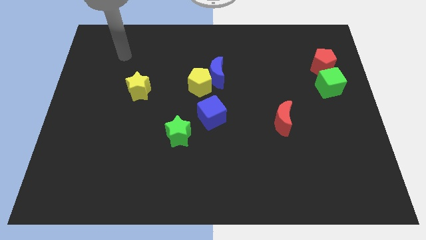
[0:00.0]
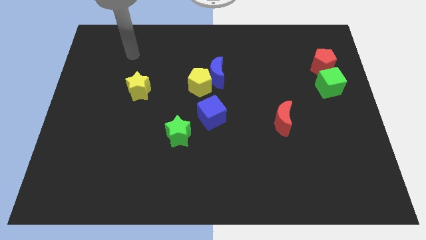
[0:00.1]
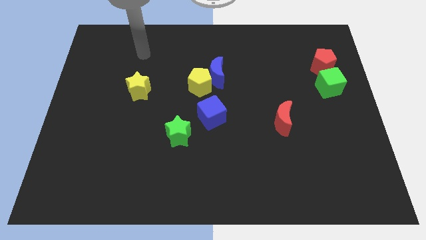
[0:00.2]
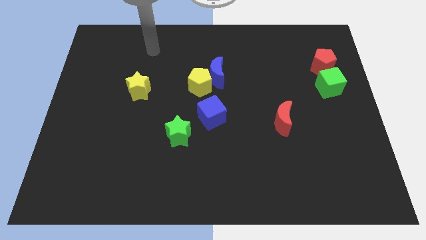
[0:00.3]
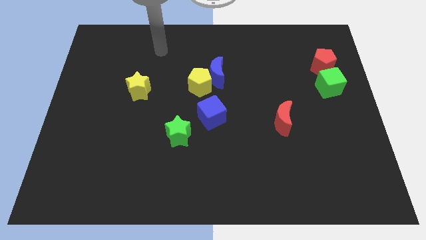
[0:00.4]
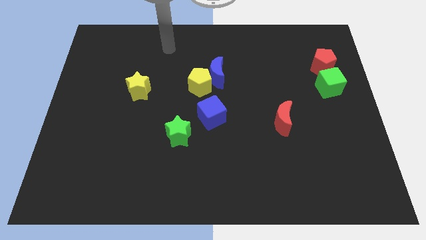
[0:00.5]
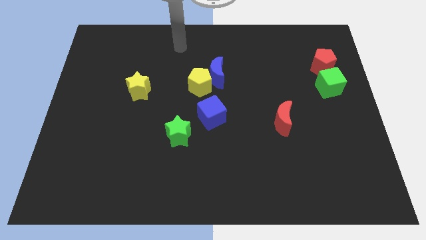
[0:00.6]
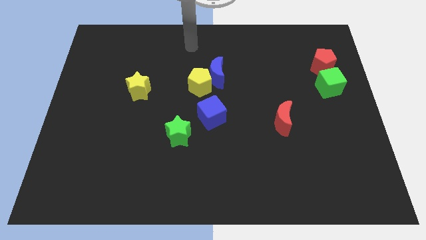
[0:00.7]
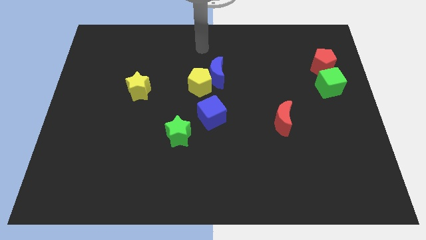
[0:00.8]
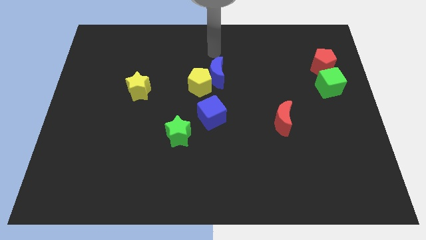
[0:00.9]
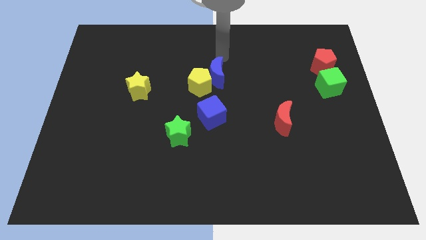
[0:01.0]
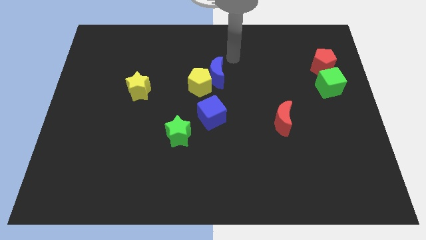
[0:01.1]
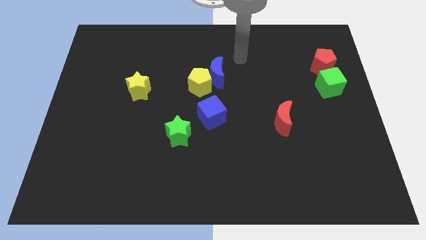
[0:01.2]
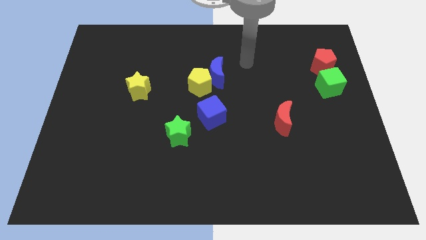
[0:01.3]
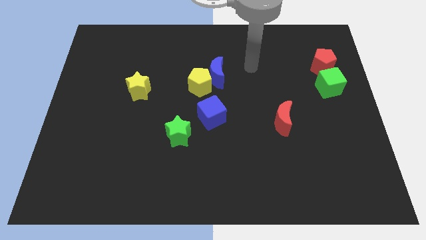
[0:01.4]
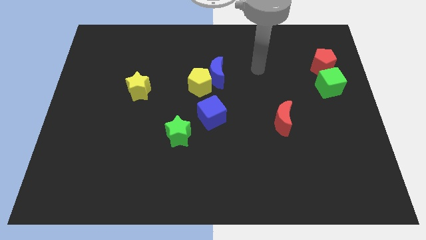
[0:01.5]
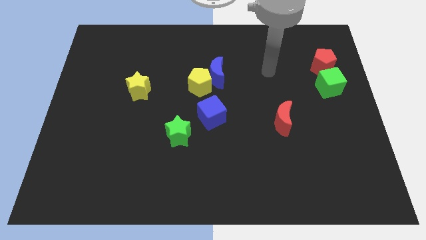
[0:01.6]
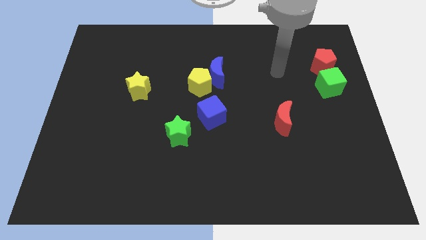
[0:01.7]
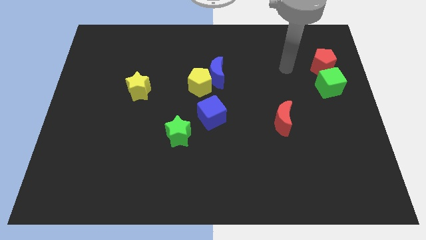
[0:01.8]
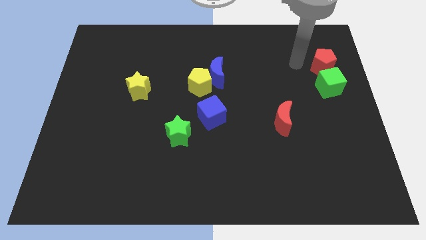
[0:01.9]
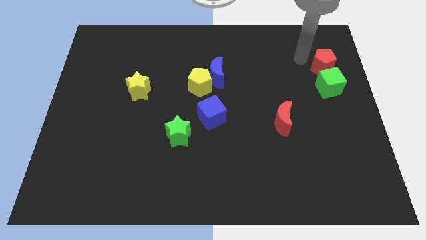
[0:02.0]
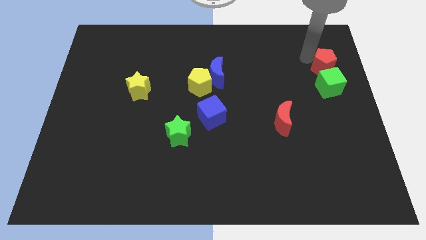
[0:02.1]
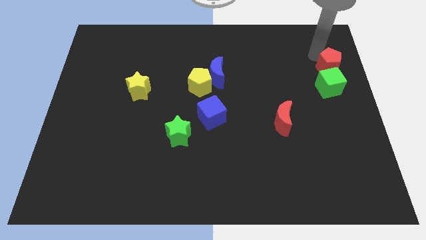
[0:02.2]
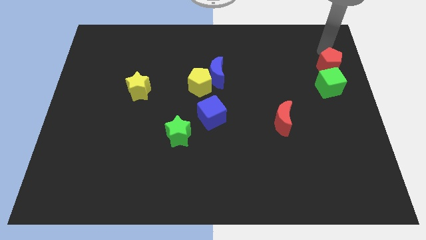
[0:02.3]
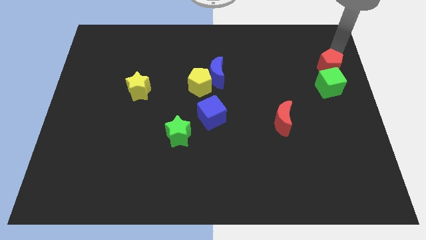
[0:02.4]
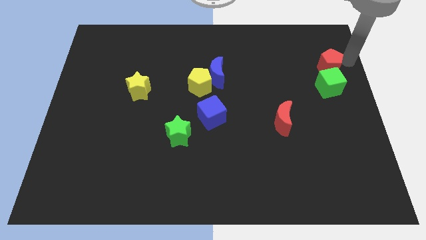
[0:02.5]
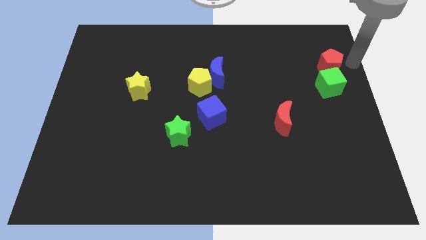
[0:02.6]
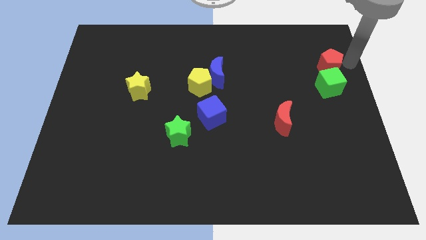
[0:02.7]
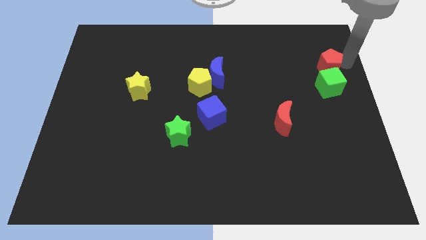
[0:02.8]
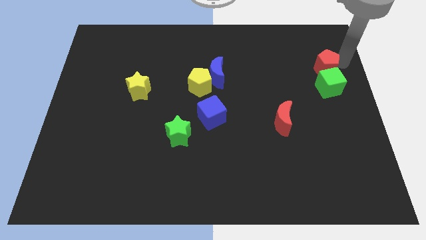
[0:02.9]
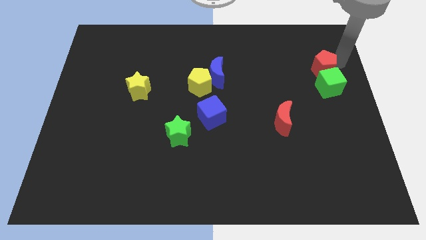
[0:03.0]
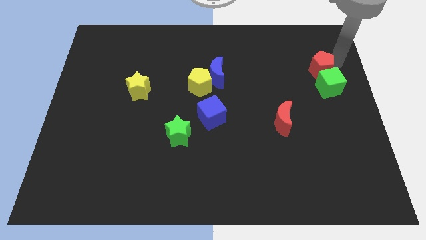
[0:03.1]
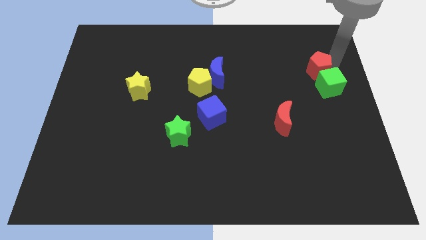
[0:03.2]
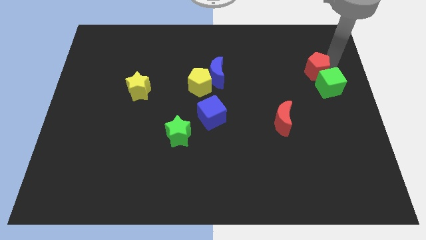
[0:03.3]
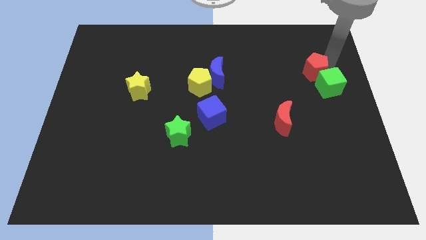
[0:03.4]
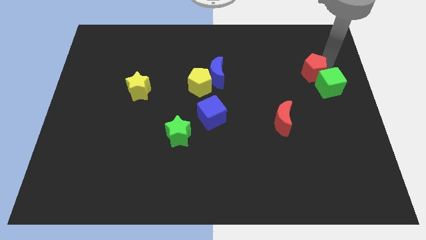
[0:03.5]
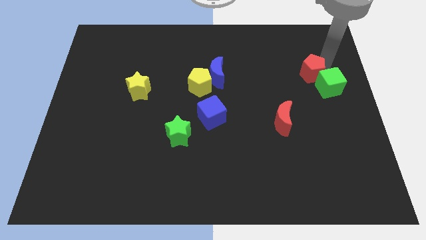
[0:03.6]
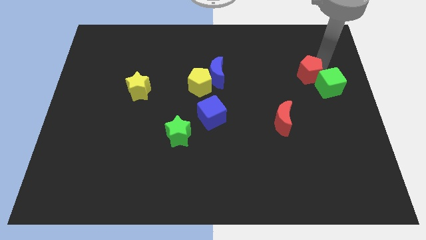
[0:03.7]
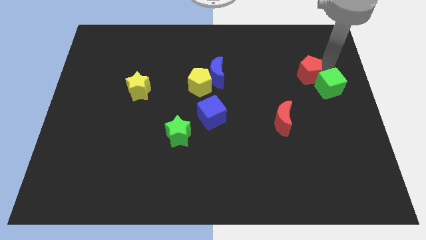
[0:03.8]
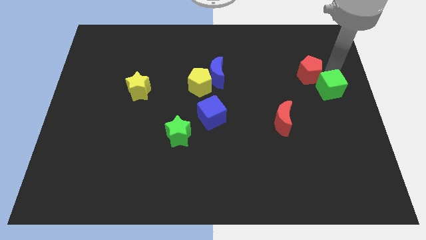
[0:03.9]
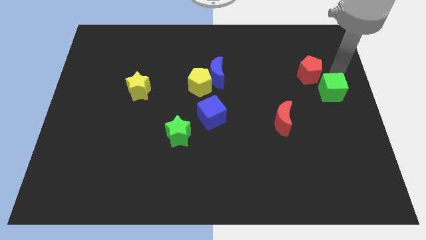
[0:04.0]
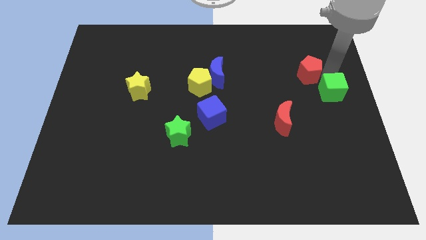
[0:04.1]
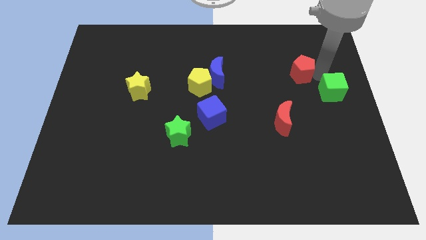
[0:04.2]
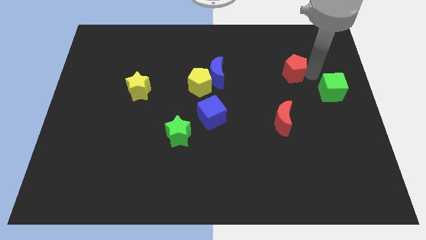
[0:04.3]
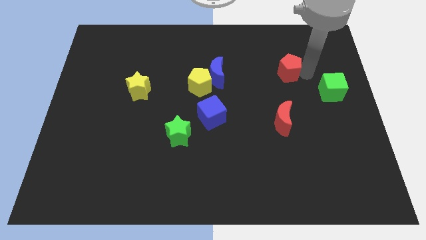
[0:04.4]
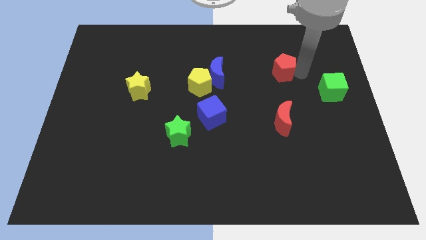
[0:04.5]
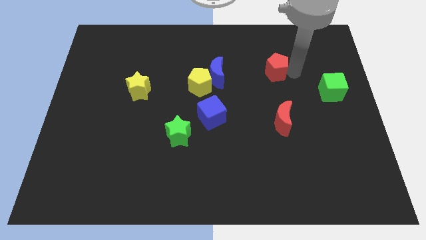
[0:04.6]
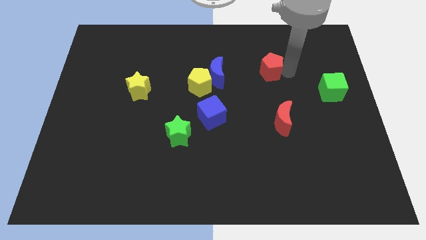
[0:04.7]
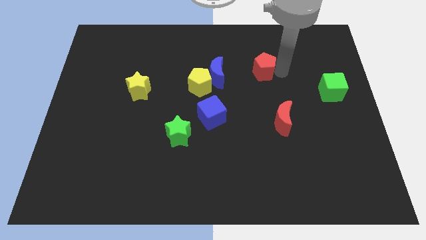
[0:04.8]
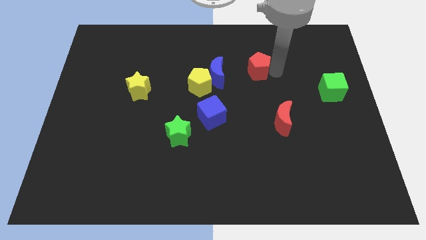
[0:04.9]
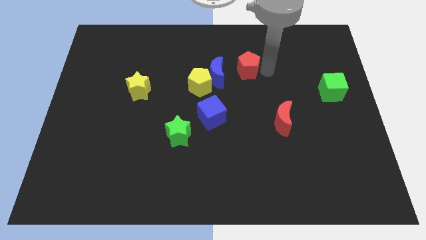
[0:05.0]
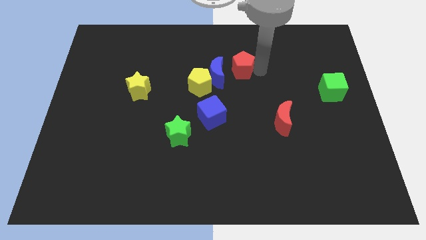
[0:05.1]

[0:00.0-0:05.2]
slide the red pentagon to the left

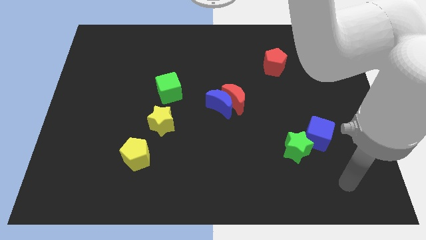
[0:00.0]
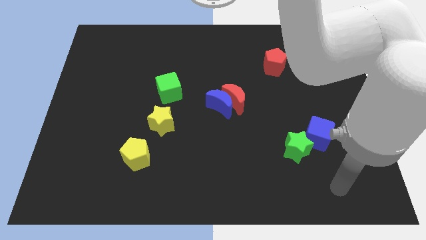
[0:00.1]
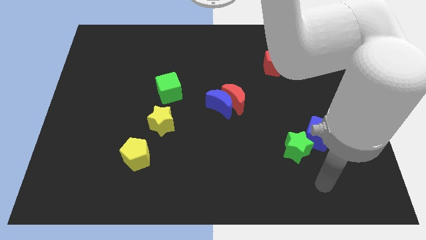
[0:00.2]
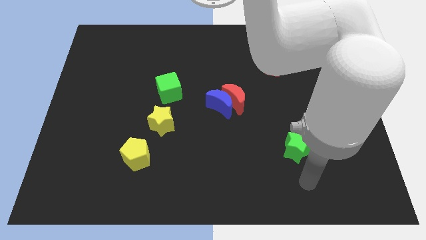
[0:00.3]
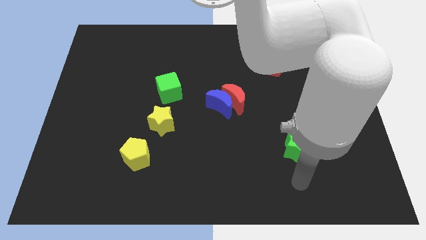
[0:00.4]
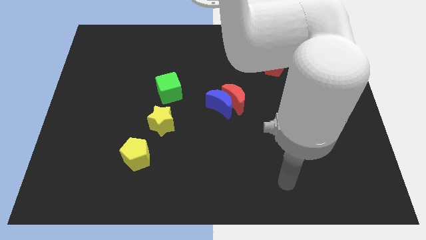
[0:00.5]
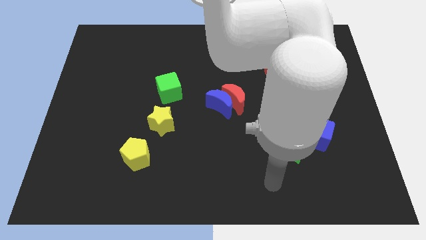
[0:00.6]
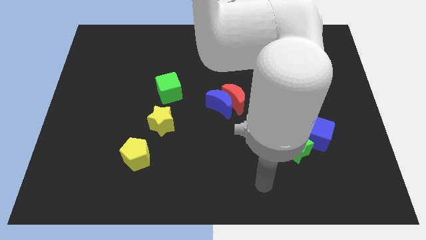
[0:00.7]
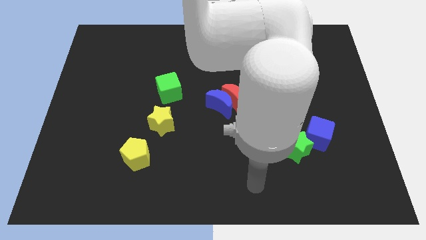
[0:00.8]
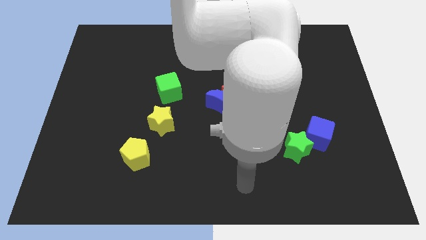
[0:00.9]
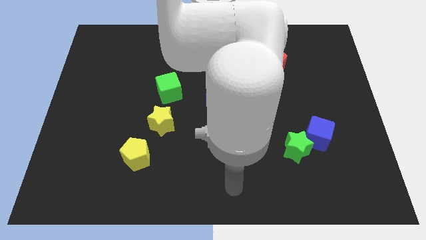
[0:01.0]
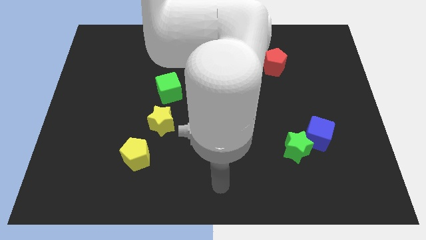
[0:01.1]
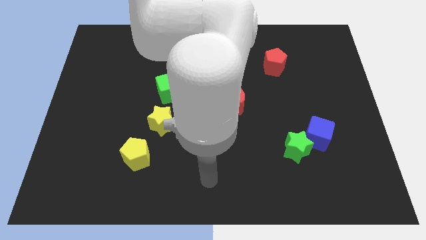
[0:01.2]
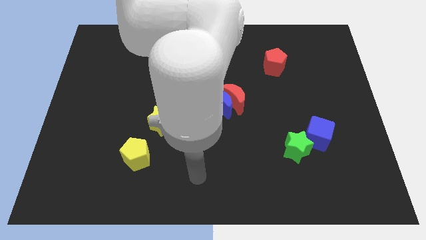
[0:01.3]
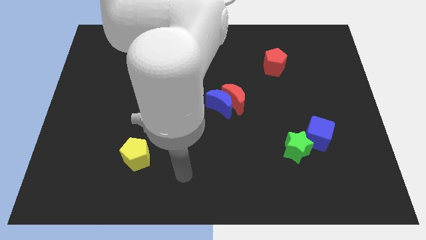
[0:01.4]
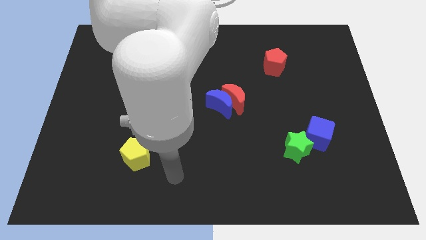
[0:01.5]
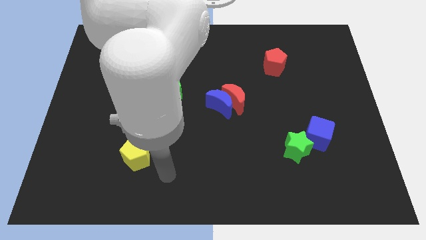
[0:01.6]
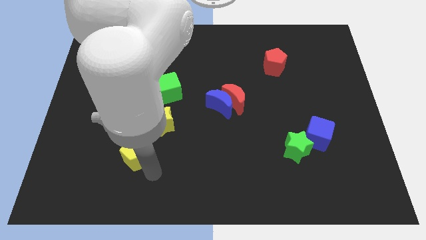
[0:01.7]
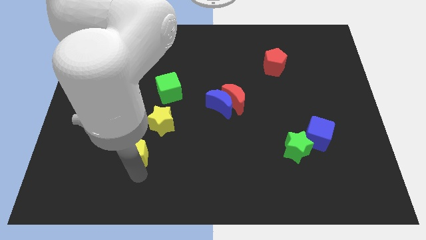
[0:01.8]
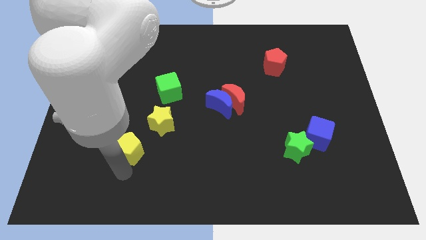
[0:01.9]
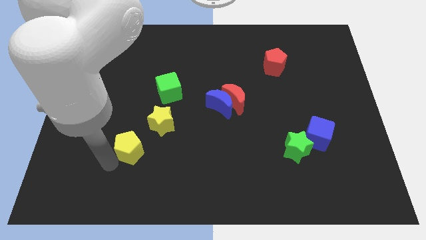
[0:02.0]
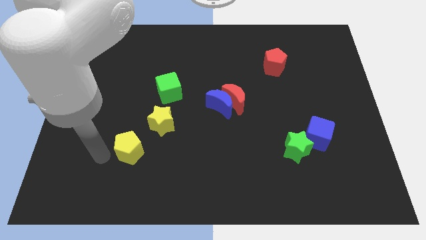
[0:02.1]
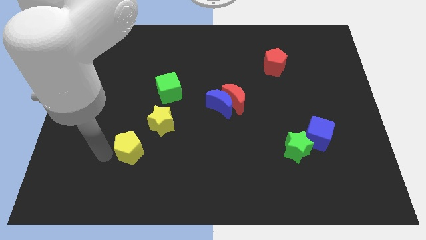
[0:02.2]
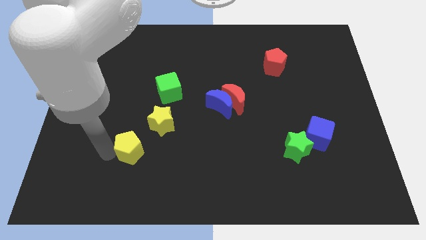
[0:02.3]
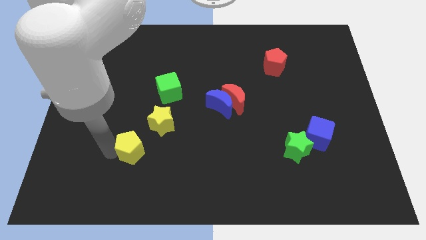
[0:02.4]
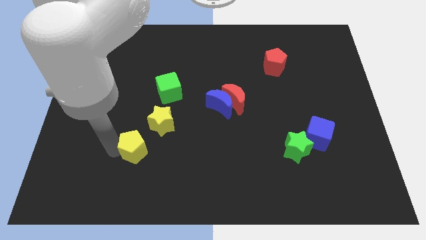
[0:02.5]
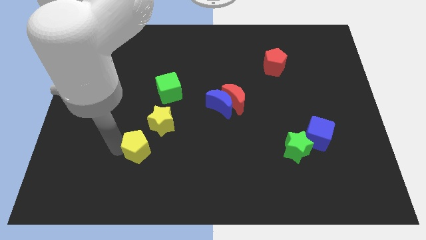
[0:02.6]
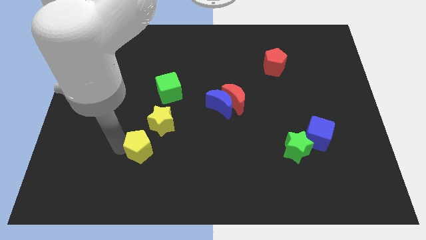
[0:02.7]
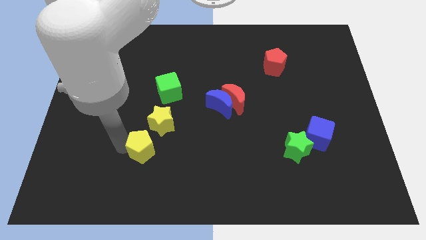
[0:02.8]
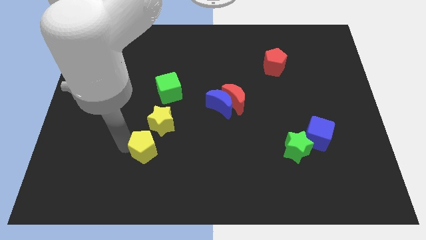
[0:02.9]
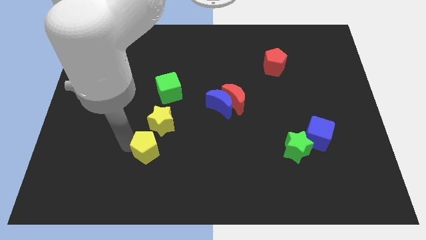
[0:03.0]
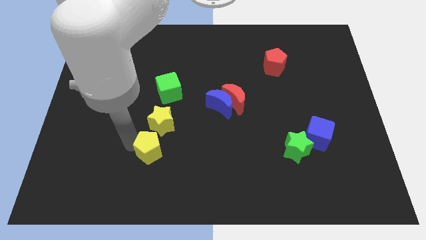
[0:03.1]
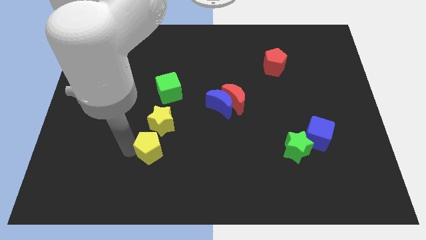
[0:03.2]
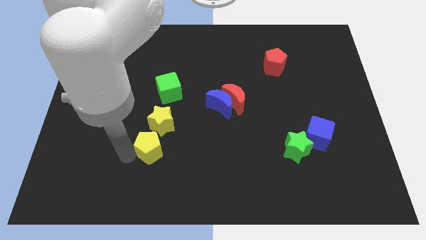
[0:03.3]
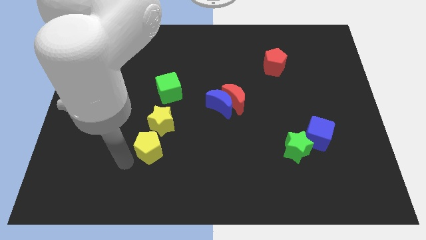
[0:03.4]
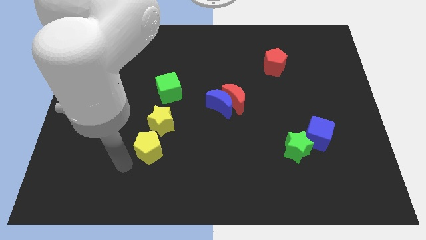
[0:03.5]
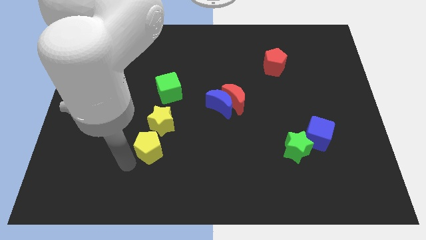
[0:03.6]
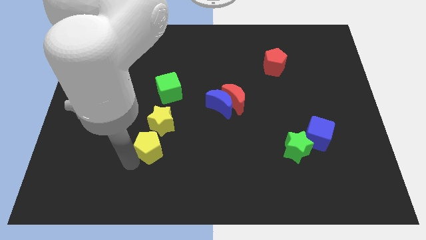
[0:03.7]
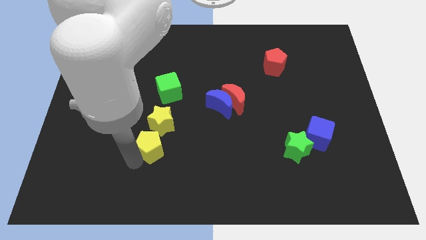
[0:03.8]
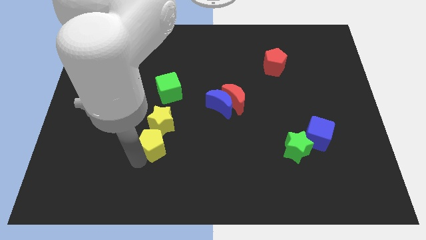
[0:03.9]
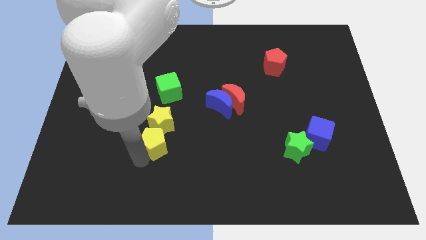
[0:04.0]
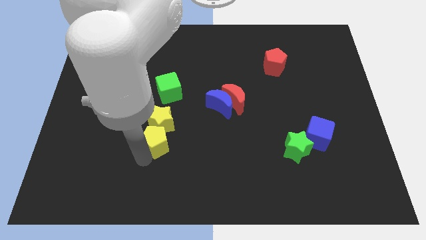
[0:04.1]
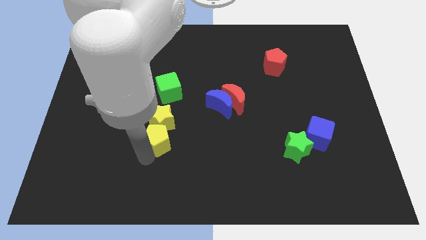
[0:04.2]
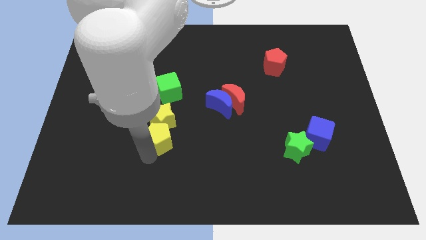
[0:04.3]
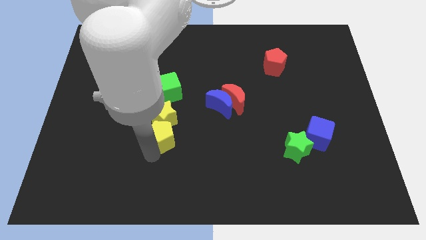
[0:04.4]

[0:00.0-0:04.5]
push the yellow pentagon a little up and to the right diagonally
